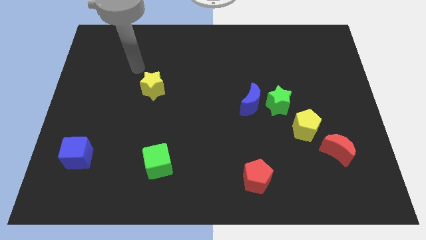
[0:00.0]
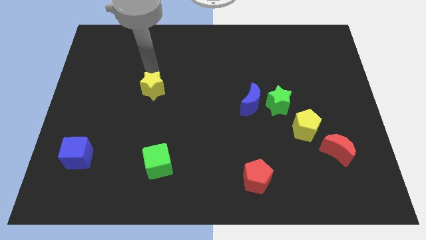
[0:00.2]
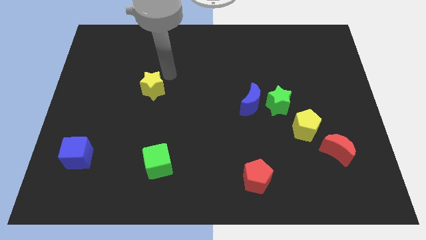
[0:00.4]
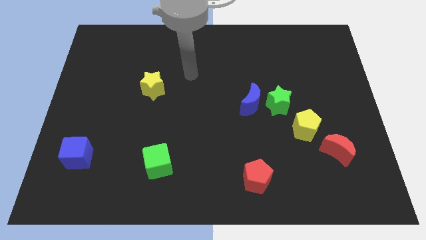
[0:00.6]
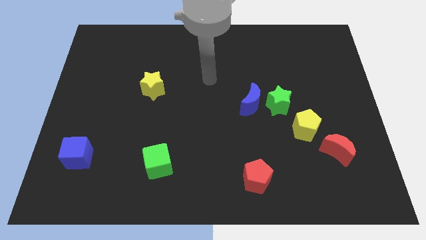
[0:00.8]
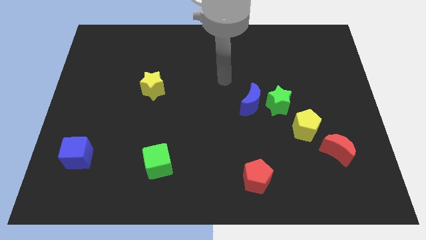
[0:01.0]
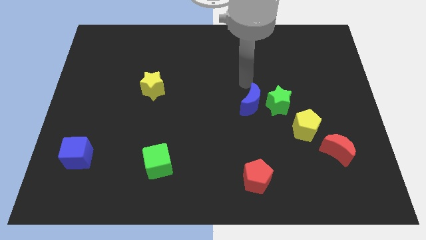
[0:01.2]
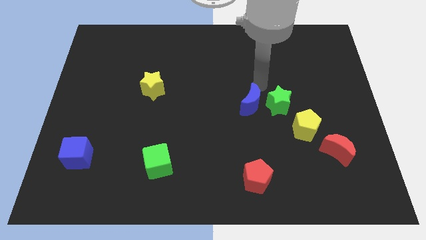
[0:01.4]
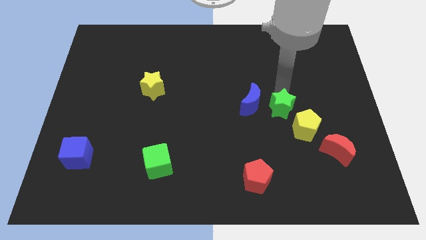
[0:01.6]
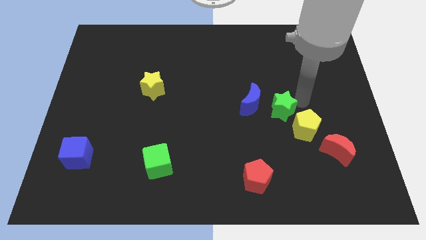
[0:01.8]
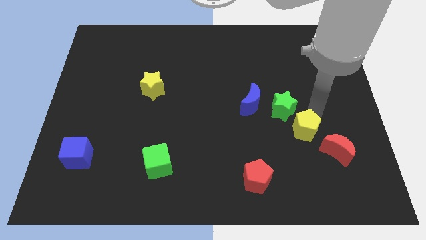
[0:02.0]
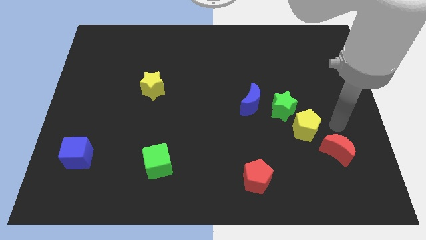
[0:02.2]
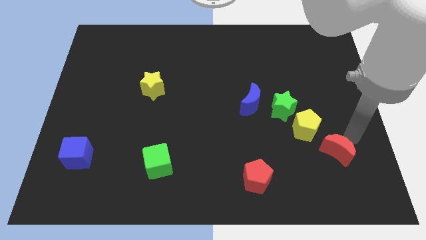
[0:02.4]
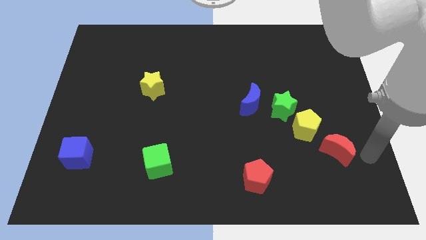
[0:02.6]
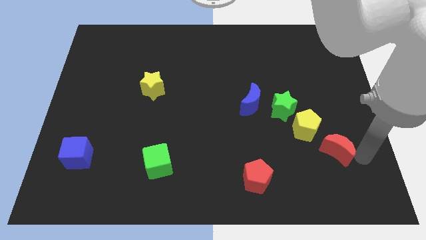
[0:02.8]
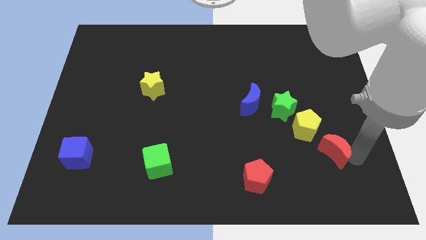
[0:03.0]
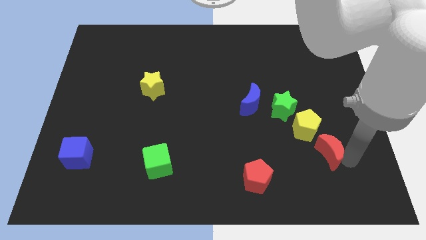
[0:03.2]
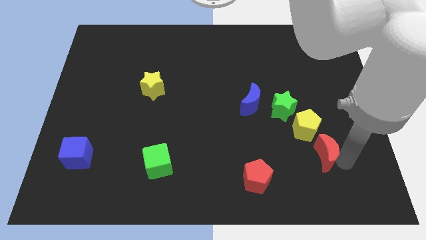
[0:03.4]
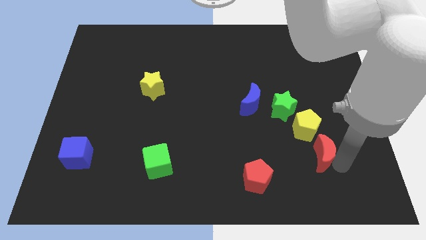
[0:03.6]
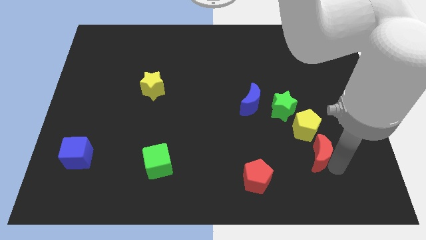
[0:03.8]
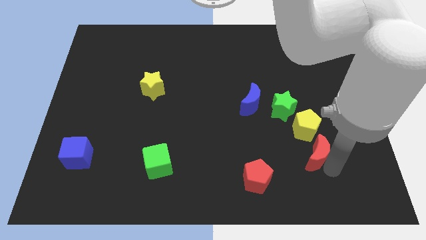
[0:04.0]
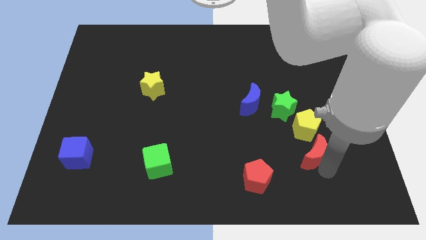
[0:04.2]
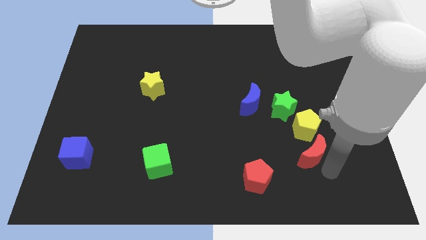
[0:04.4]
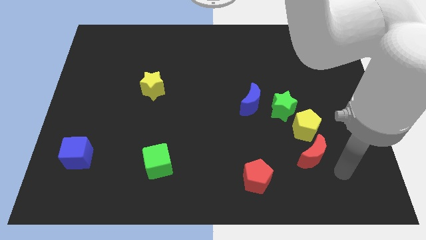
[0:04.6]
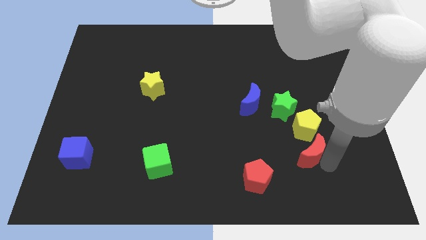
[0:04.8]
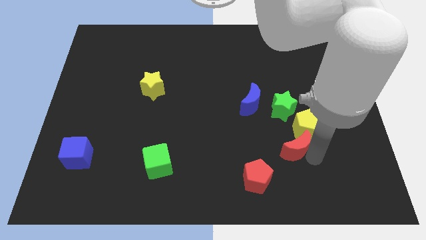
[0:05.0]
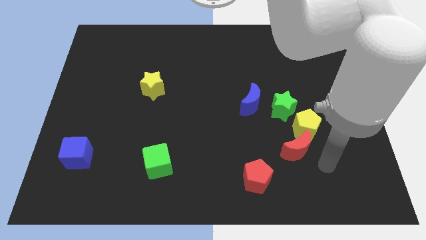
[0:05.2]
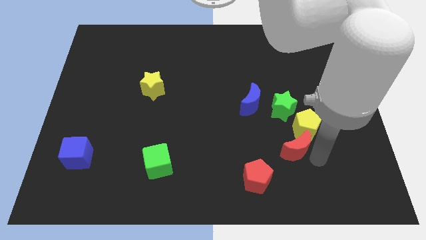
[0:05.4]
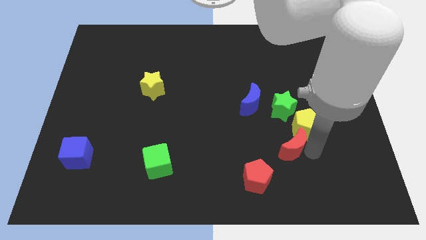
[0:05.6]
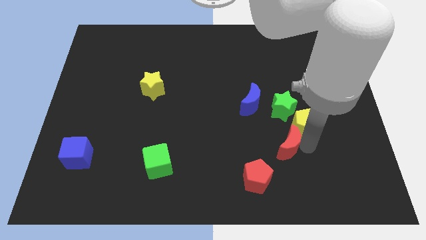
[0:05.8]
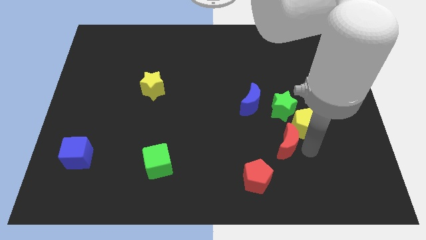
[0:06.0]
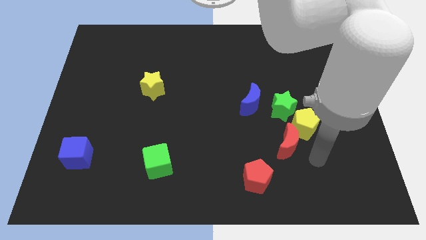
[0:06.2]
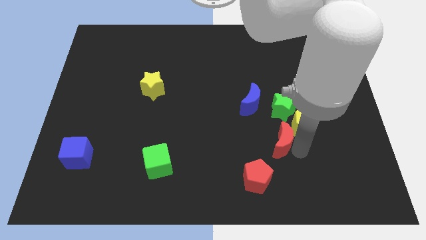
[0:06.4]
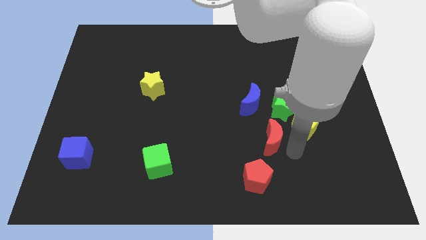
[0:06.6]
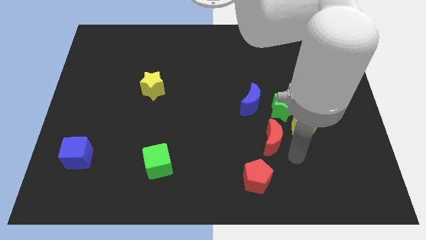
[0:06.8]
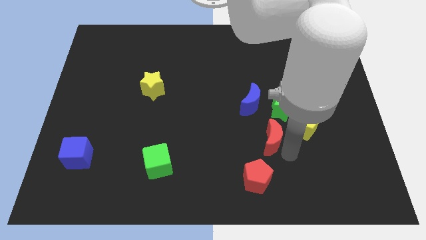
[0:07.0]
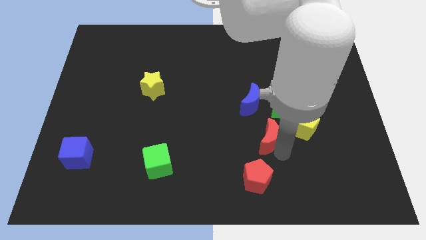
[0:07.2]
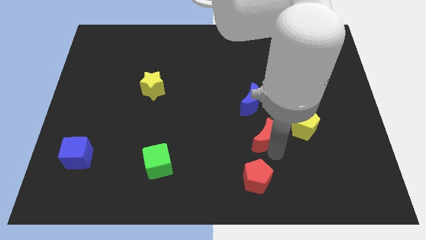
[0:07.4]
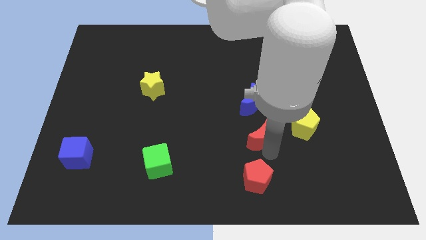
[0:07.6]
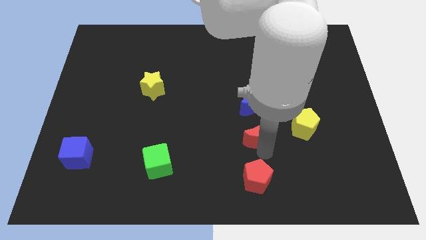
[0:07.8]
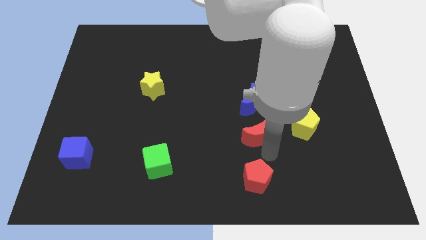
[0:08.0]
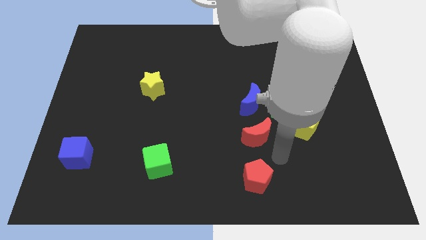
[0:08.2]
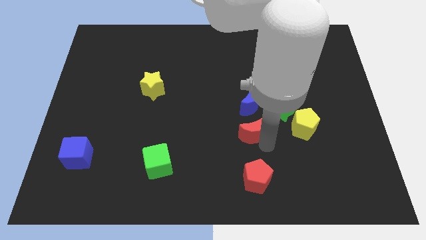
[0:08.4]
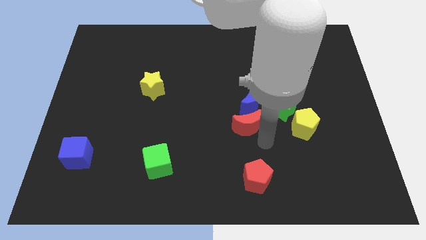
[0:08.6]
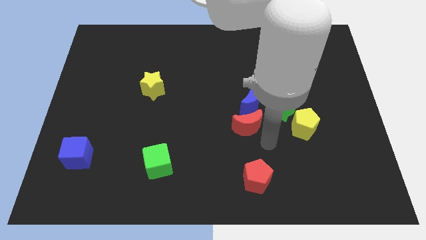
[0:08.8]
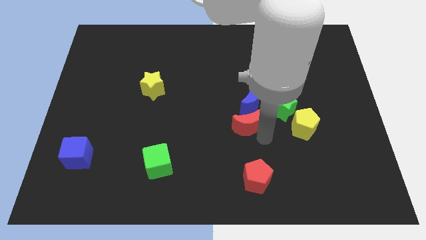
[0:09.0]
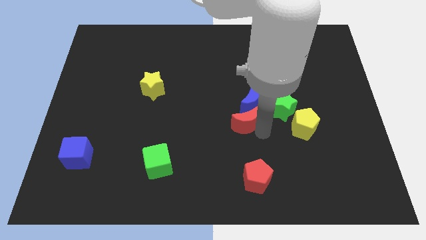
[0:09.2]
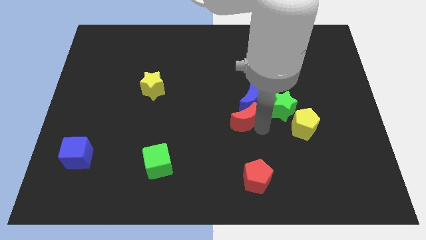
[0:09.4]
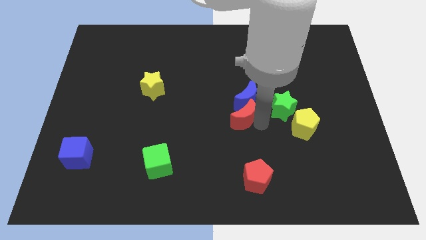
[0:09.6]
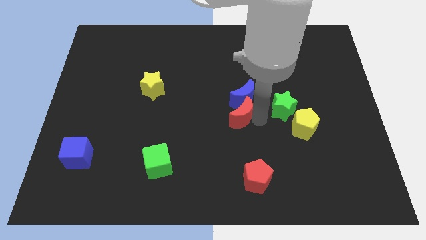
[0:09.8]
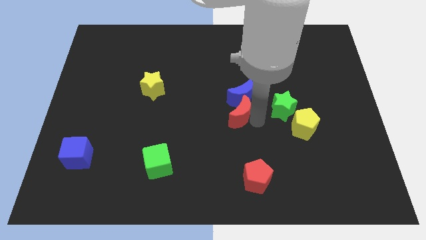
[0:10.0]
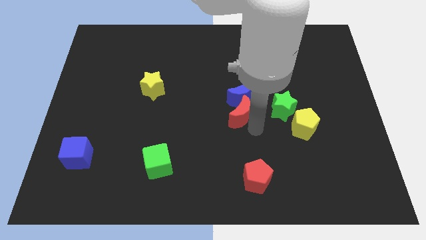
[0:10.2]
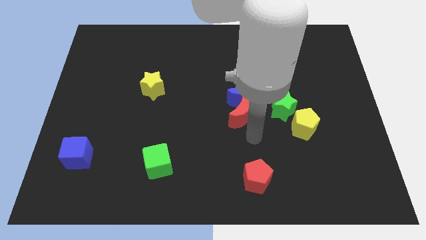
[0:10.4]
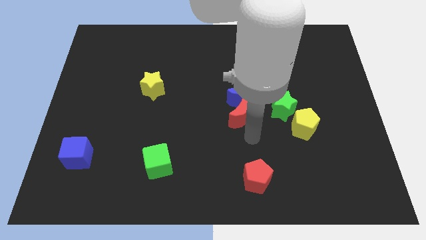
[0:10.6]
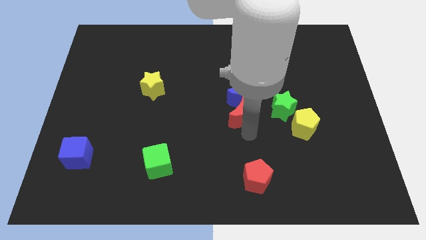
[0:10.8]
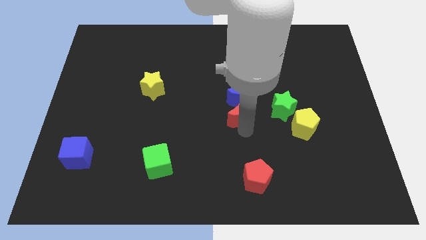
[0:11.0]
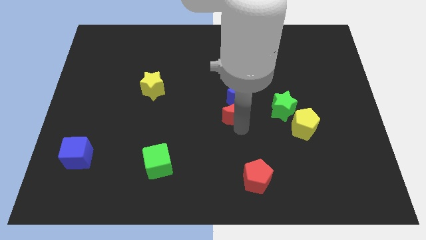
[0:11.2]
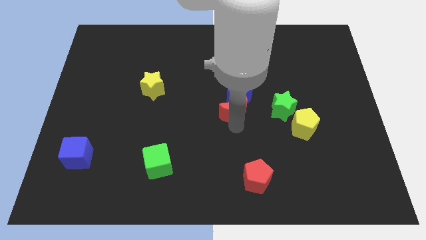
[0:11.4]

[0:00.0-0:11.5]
move the red moon diagonally up and left

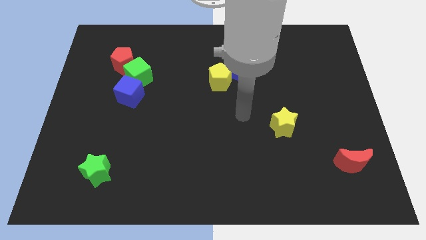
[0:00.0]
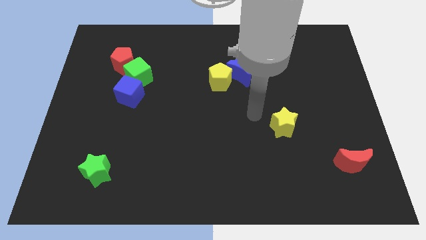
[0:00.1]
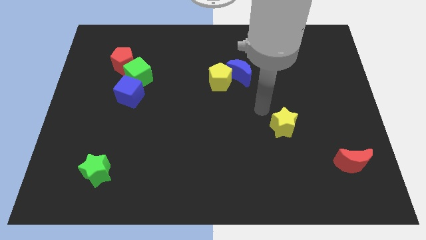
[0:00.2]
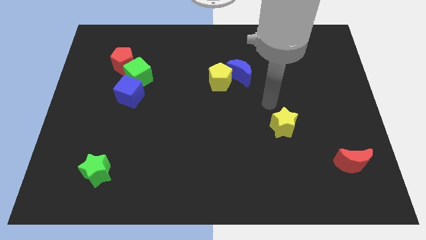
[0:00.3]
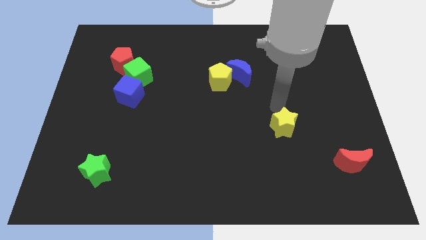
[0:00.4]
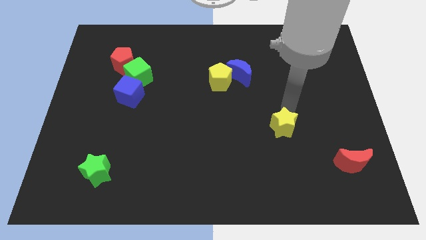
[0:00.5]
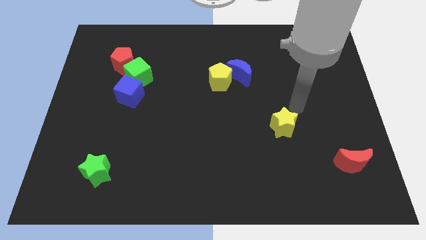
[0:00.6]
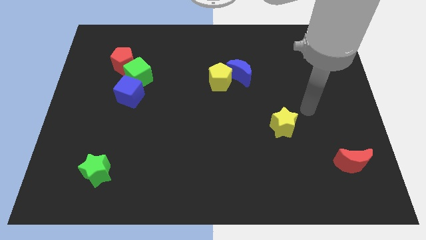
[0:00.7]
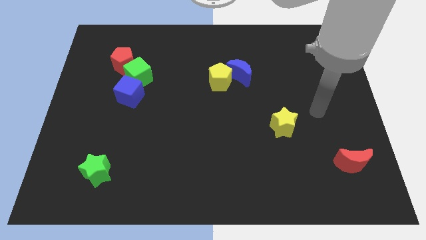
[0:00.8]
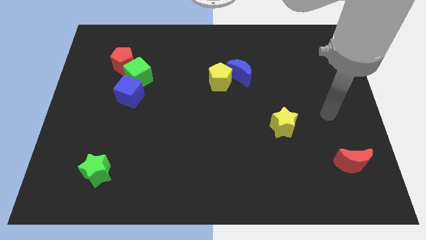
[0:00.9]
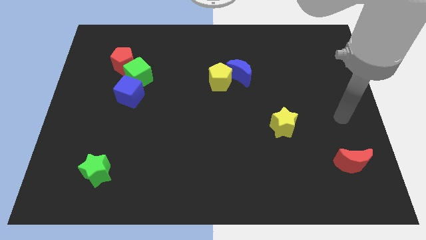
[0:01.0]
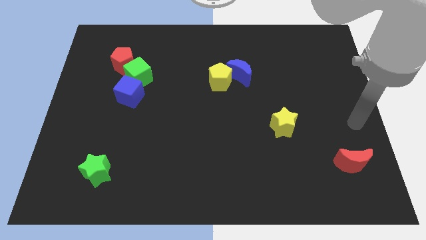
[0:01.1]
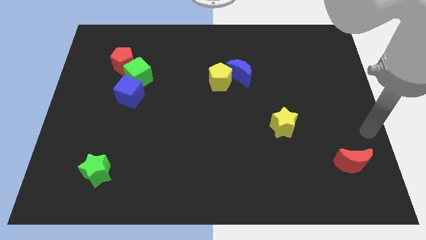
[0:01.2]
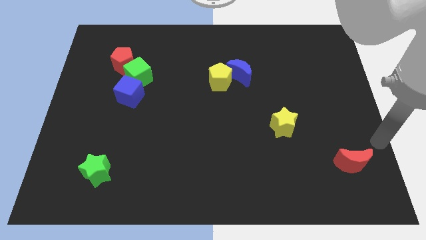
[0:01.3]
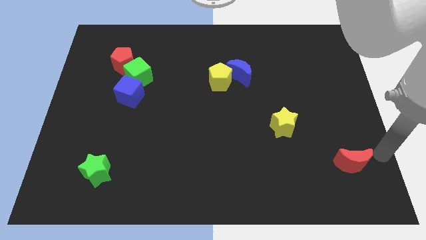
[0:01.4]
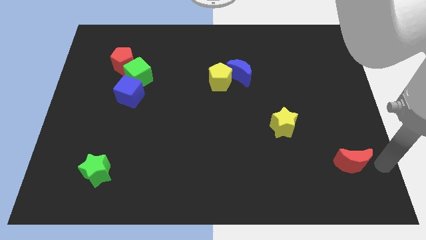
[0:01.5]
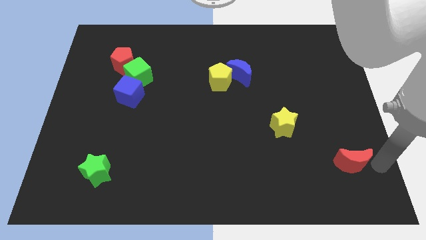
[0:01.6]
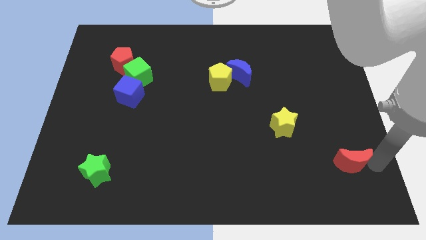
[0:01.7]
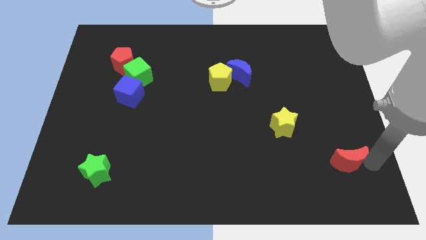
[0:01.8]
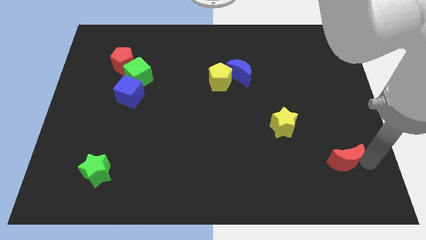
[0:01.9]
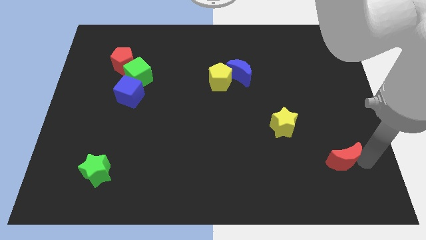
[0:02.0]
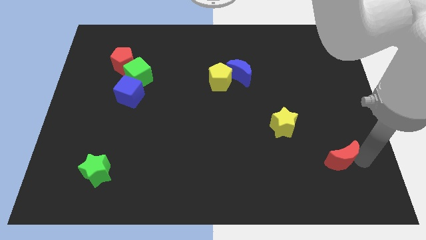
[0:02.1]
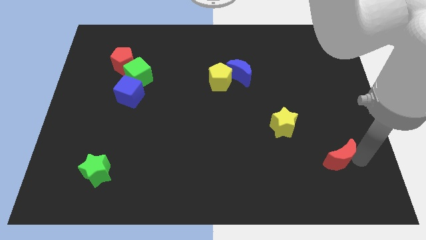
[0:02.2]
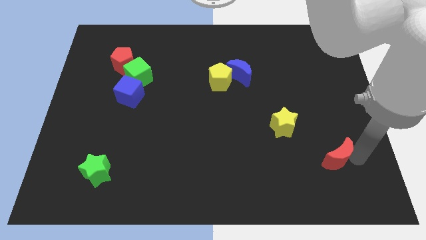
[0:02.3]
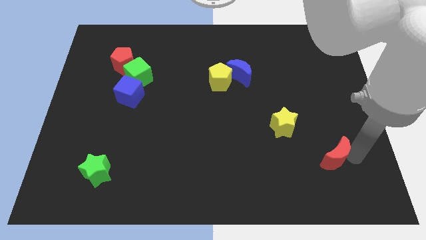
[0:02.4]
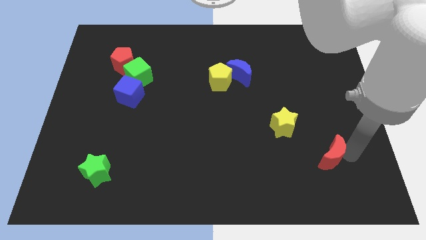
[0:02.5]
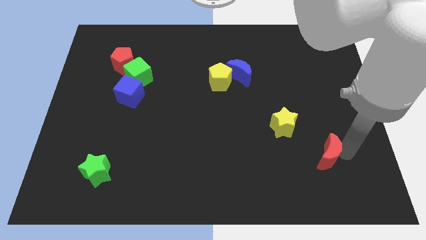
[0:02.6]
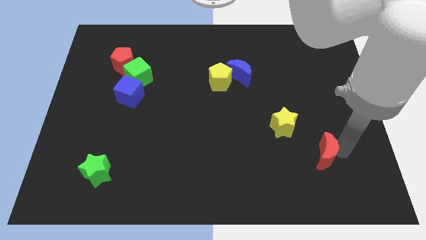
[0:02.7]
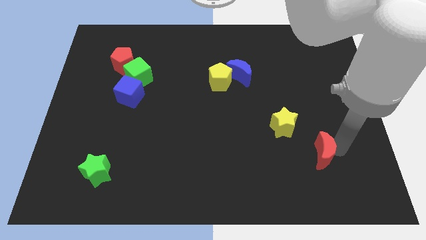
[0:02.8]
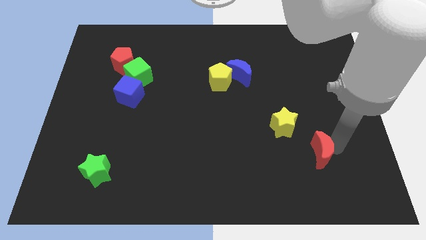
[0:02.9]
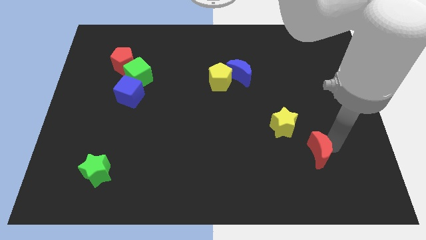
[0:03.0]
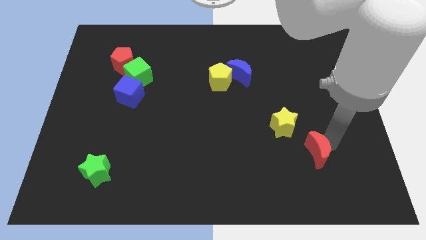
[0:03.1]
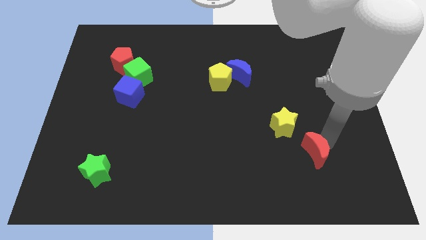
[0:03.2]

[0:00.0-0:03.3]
move the red moon a bit to the left
